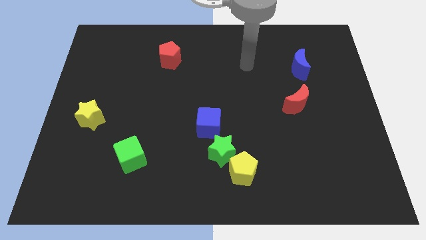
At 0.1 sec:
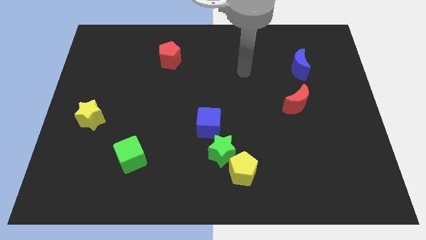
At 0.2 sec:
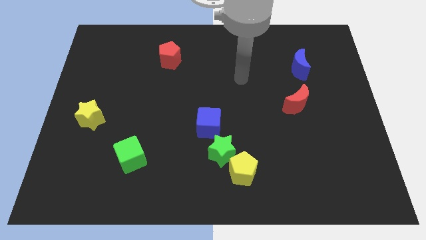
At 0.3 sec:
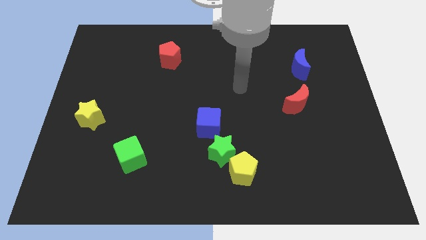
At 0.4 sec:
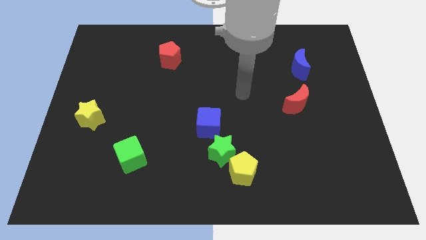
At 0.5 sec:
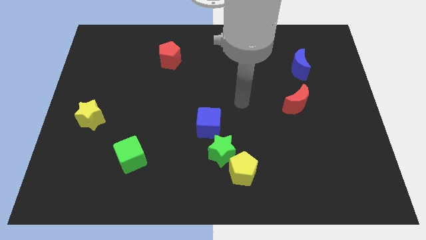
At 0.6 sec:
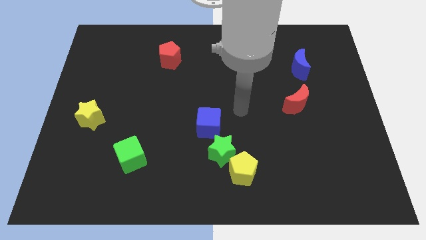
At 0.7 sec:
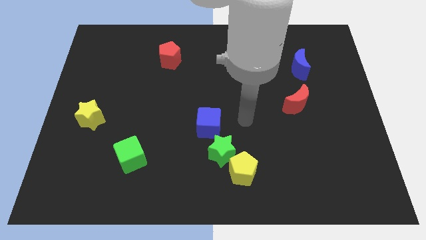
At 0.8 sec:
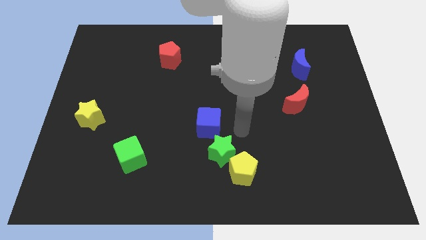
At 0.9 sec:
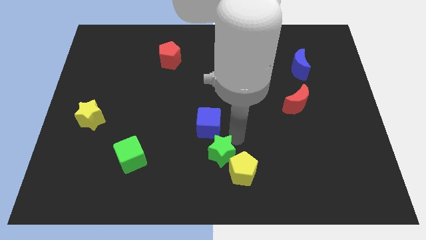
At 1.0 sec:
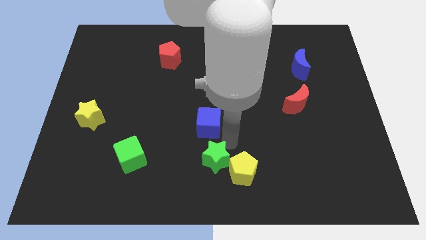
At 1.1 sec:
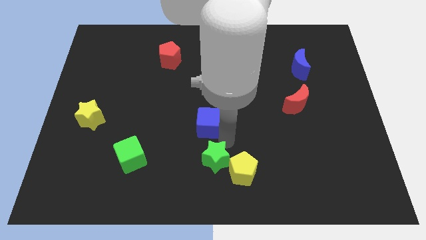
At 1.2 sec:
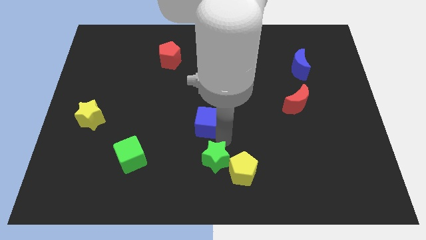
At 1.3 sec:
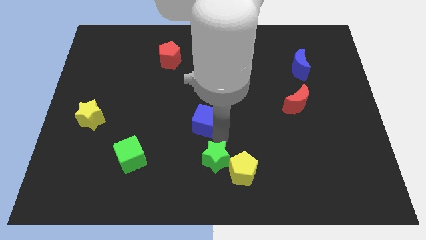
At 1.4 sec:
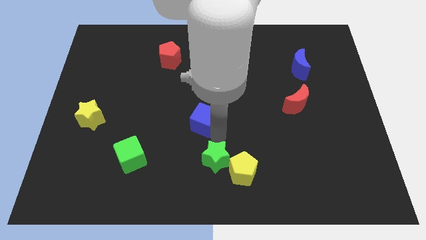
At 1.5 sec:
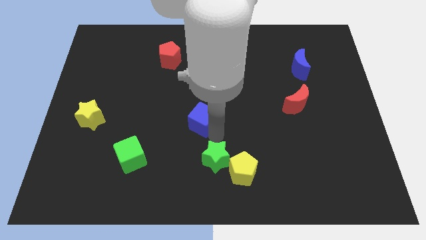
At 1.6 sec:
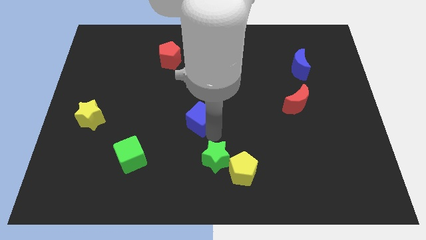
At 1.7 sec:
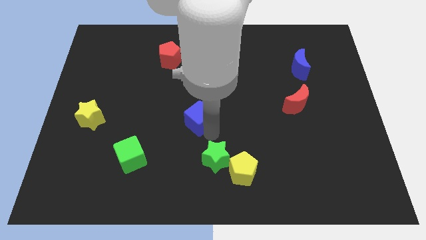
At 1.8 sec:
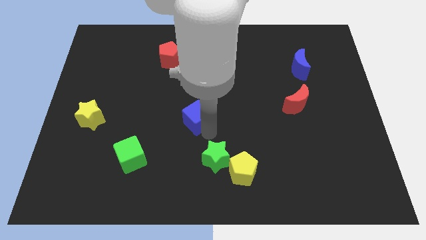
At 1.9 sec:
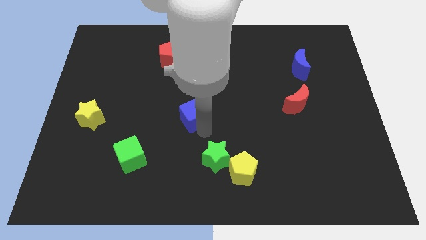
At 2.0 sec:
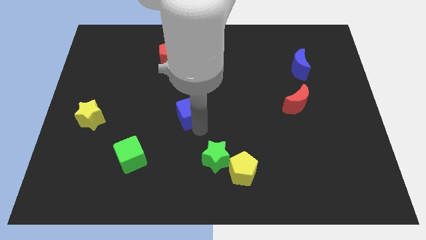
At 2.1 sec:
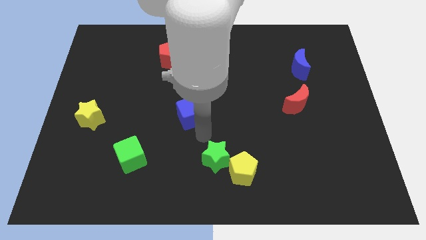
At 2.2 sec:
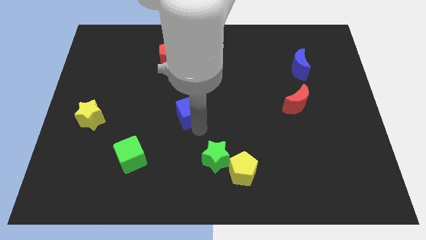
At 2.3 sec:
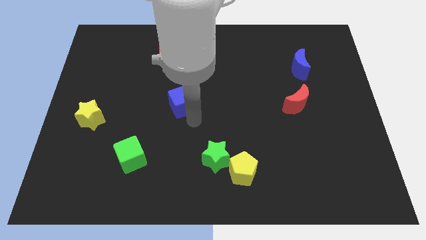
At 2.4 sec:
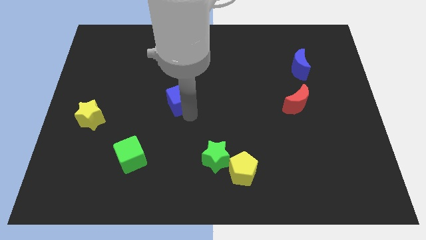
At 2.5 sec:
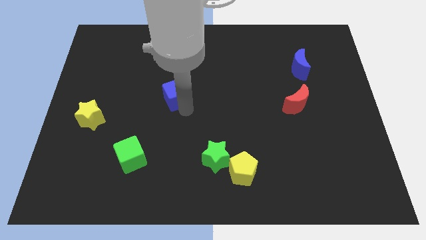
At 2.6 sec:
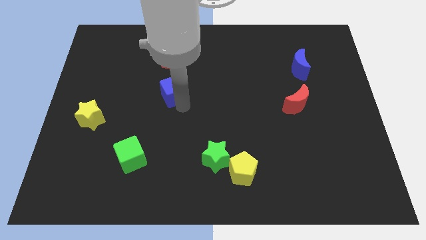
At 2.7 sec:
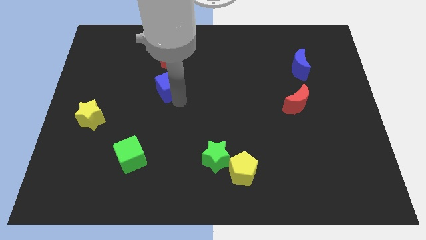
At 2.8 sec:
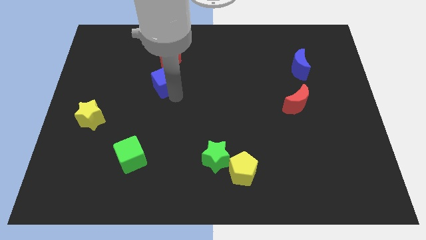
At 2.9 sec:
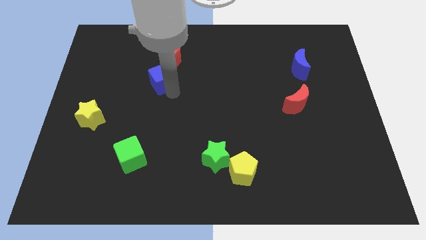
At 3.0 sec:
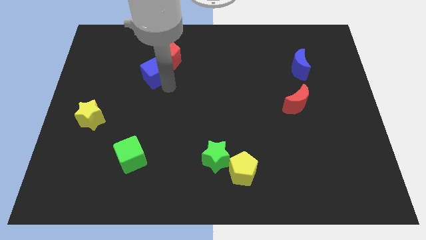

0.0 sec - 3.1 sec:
push the blue cube up and to the left diagonally

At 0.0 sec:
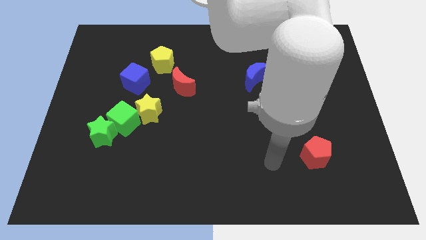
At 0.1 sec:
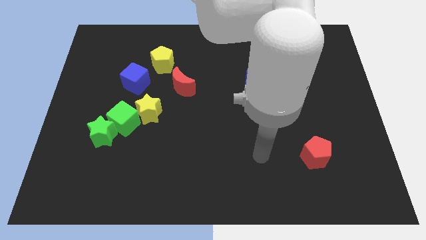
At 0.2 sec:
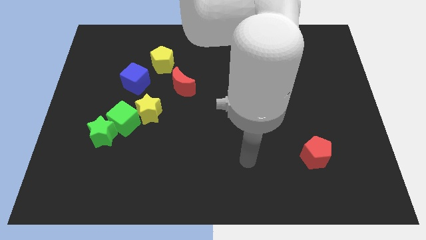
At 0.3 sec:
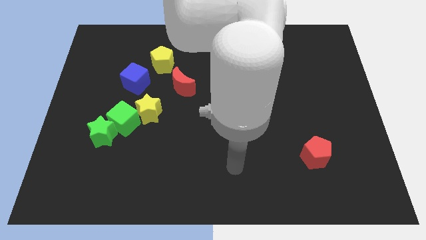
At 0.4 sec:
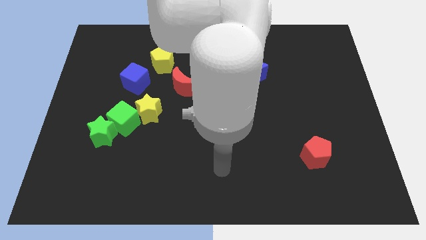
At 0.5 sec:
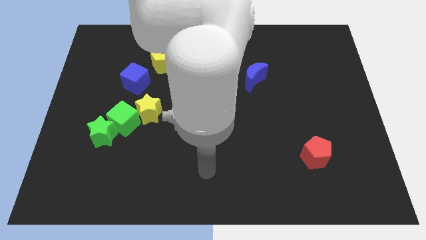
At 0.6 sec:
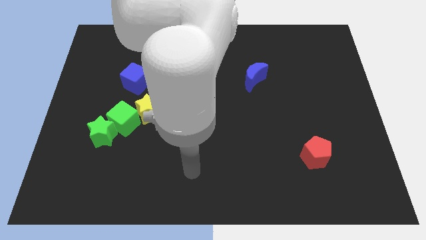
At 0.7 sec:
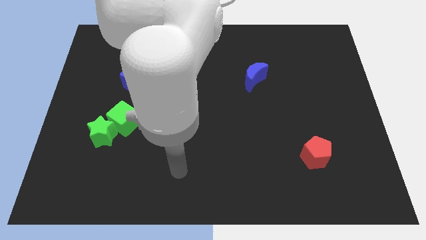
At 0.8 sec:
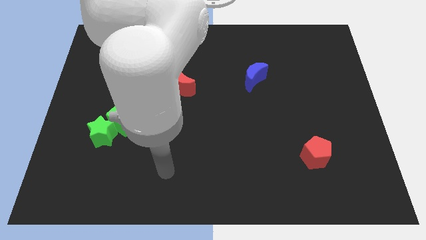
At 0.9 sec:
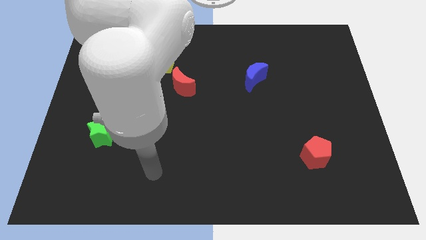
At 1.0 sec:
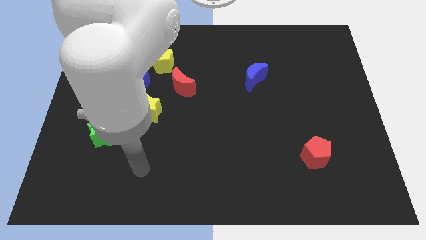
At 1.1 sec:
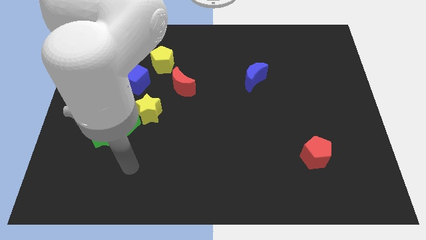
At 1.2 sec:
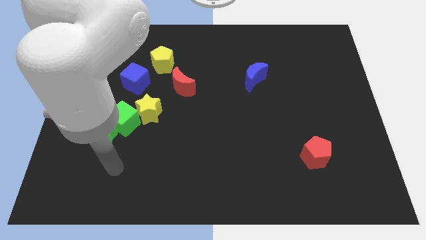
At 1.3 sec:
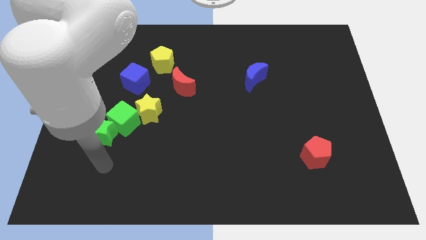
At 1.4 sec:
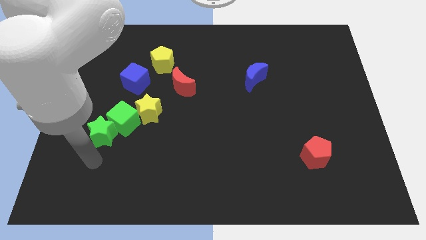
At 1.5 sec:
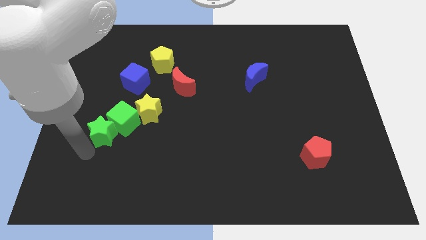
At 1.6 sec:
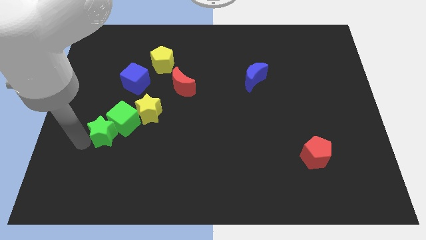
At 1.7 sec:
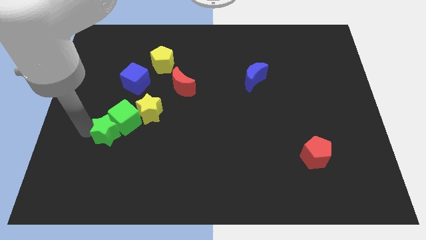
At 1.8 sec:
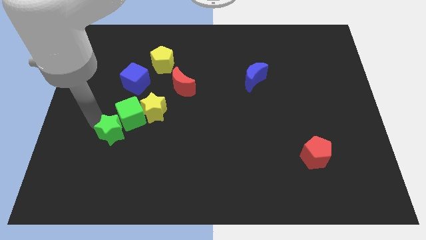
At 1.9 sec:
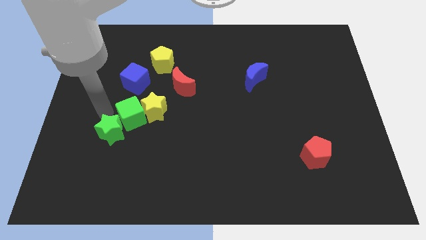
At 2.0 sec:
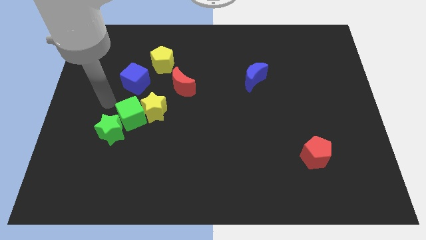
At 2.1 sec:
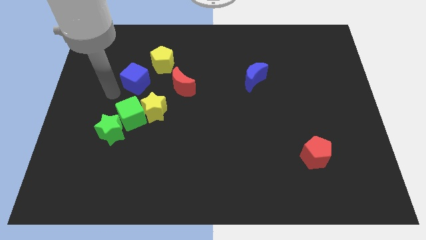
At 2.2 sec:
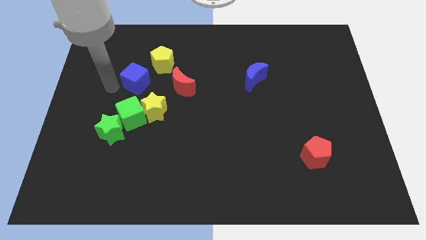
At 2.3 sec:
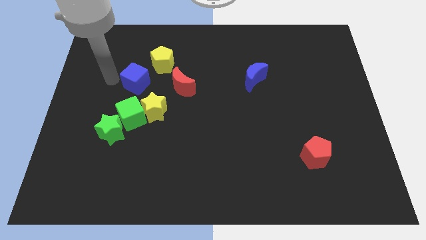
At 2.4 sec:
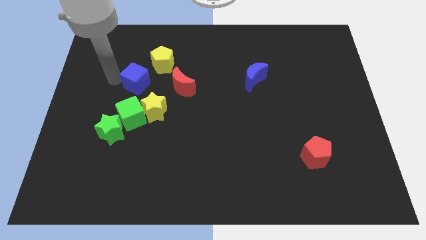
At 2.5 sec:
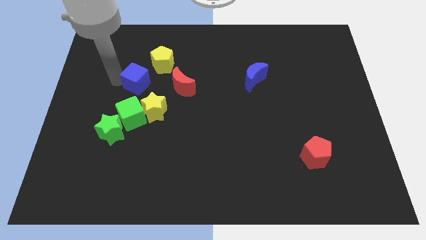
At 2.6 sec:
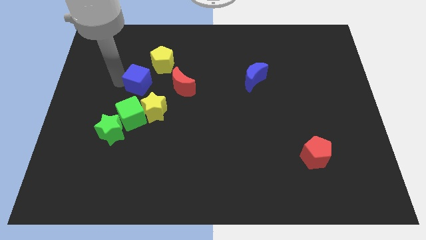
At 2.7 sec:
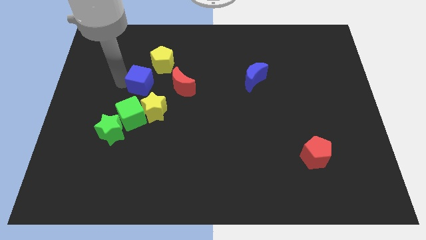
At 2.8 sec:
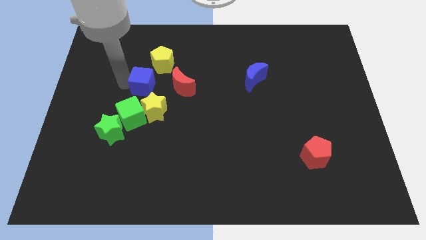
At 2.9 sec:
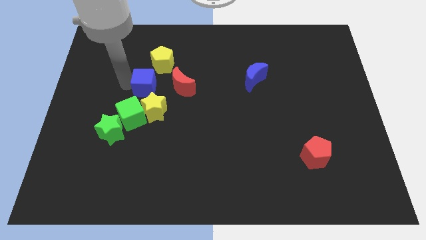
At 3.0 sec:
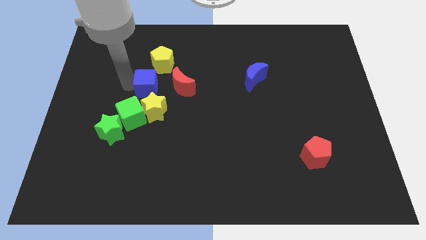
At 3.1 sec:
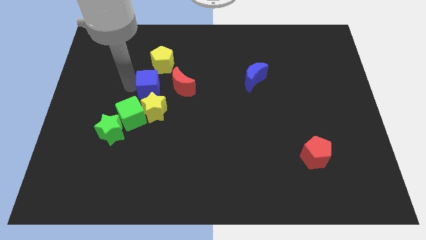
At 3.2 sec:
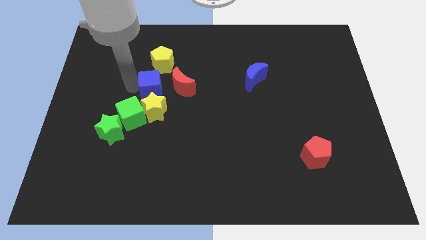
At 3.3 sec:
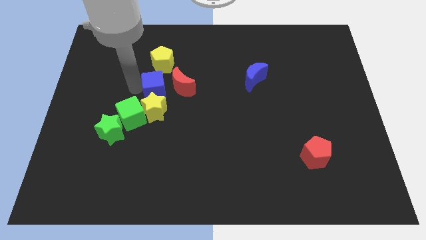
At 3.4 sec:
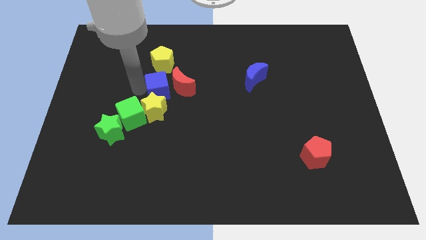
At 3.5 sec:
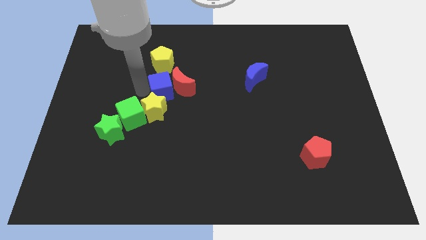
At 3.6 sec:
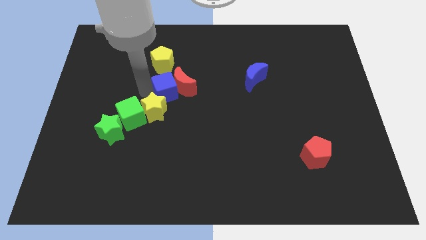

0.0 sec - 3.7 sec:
slide the blue cube a bit to the right

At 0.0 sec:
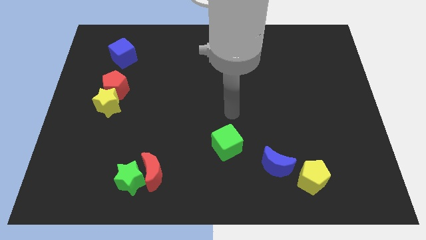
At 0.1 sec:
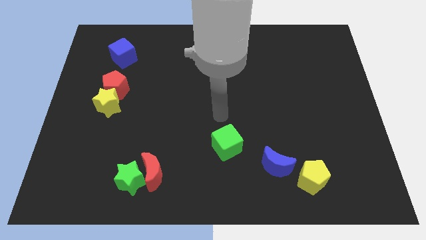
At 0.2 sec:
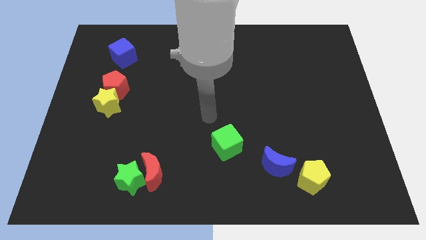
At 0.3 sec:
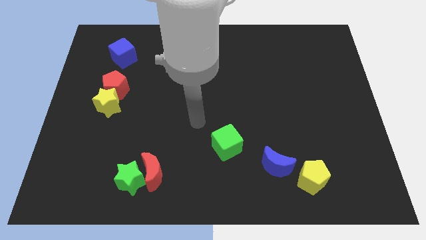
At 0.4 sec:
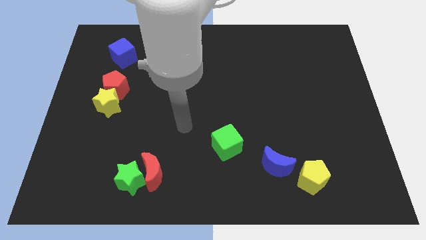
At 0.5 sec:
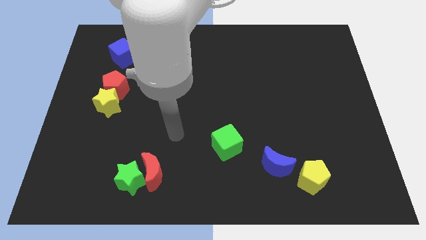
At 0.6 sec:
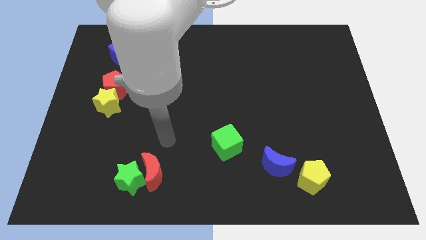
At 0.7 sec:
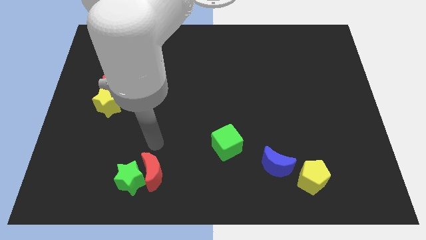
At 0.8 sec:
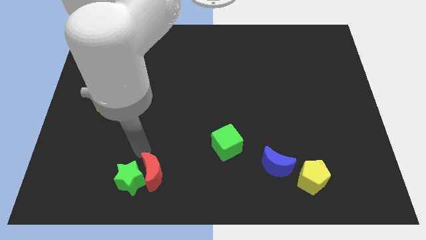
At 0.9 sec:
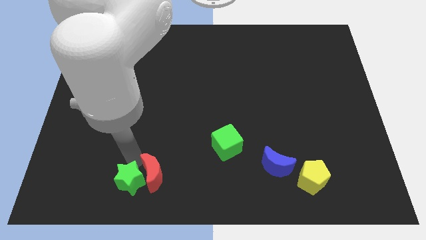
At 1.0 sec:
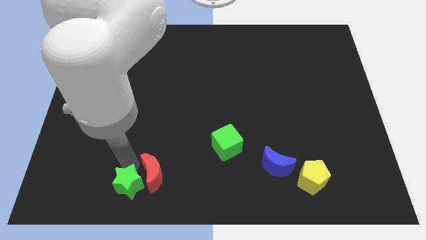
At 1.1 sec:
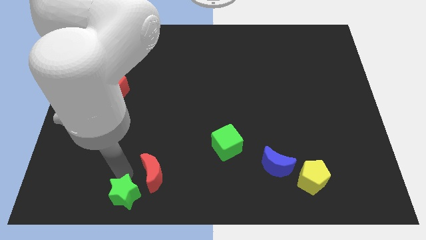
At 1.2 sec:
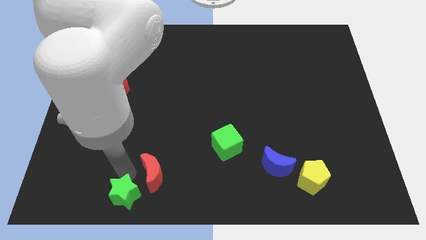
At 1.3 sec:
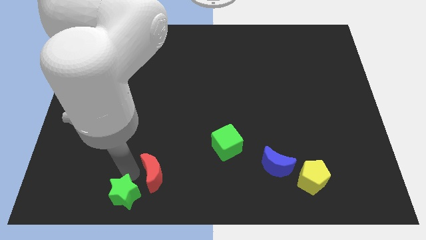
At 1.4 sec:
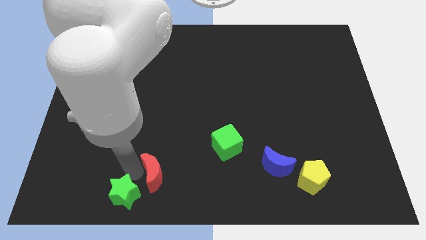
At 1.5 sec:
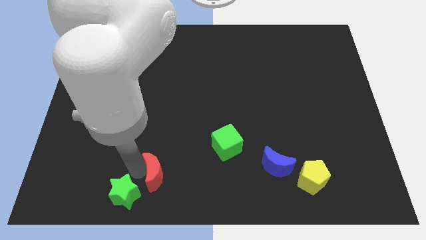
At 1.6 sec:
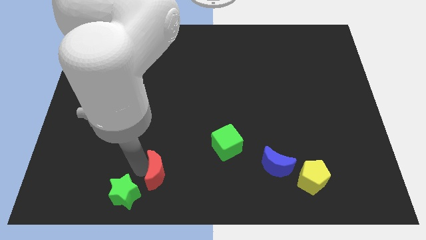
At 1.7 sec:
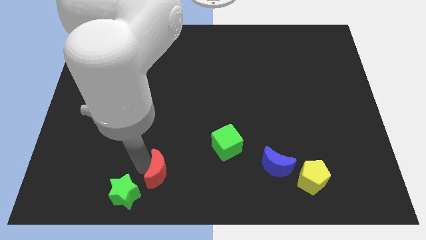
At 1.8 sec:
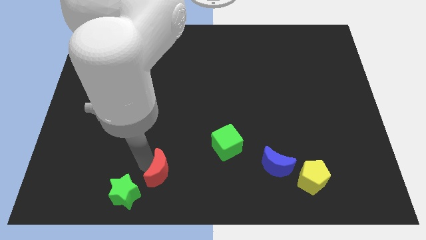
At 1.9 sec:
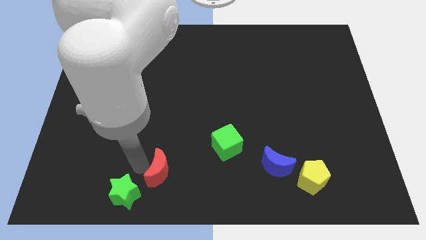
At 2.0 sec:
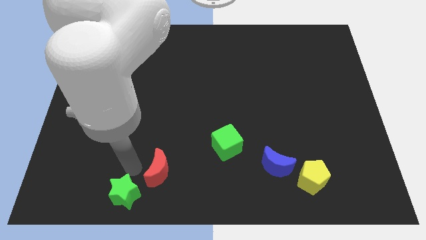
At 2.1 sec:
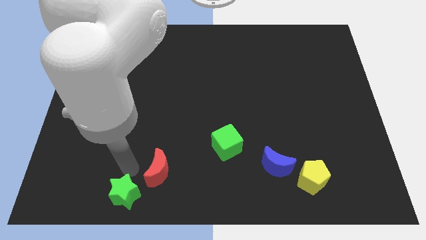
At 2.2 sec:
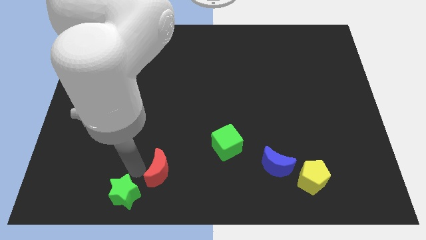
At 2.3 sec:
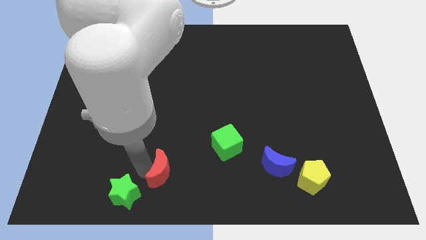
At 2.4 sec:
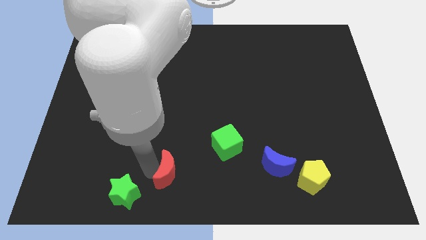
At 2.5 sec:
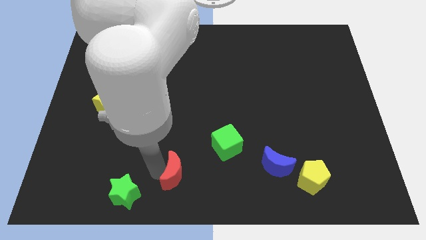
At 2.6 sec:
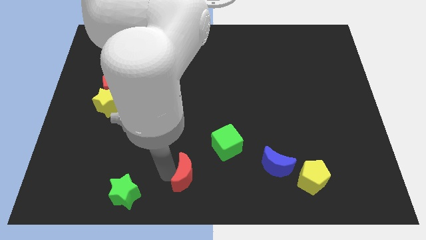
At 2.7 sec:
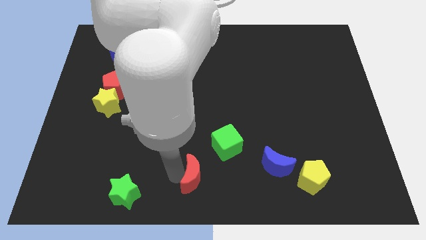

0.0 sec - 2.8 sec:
slide the red moon to the right a little bit
